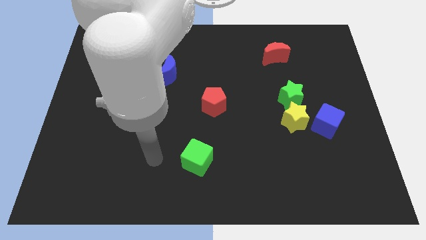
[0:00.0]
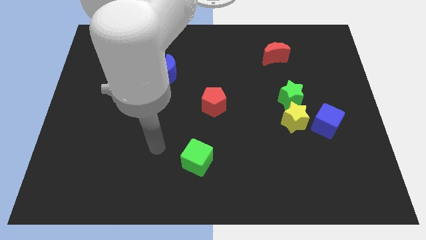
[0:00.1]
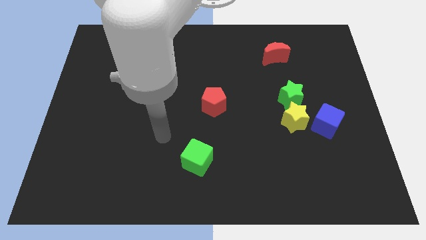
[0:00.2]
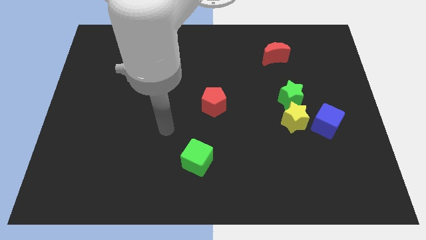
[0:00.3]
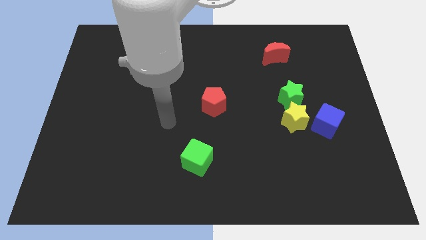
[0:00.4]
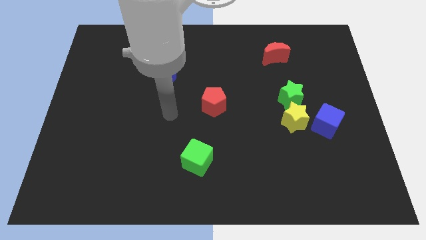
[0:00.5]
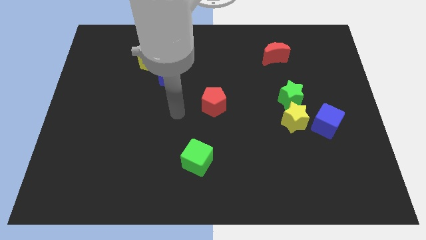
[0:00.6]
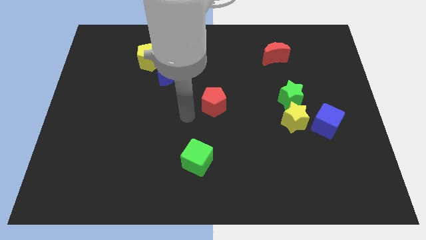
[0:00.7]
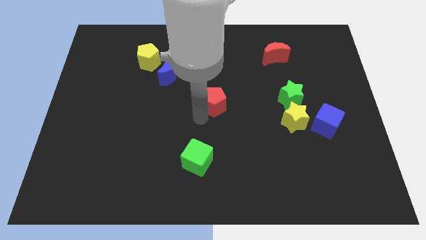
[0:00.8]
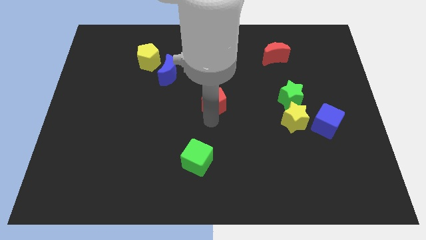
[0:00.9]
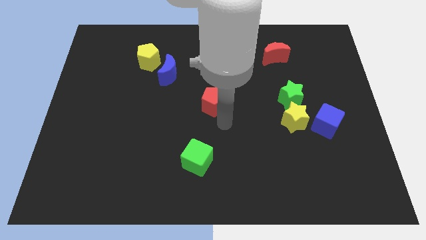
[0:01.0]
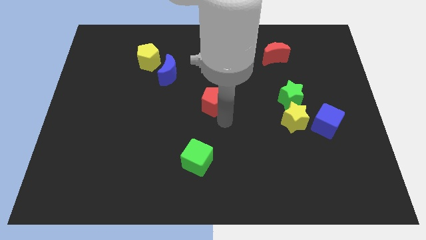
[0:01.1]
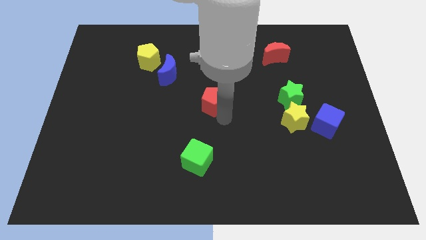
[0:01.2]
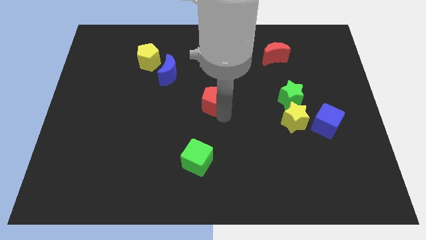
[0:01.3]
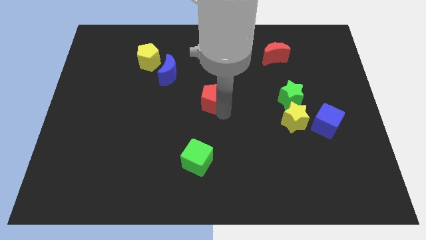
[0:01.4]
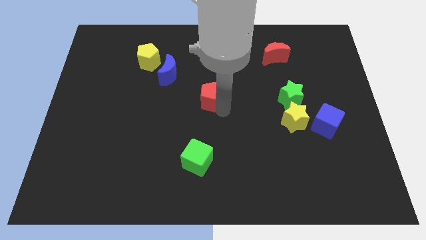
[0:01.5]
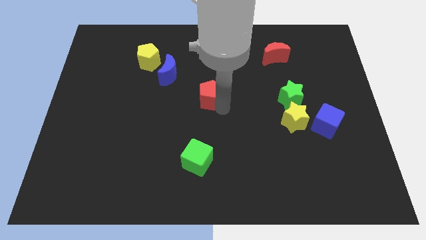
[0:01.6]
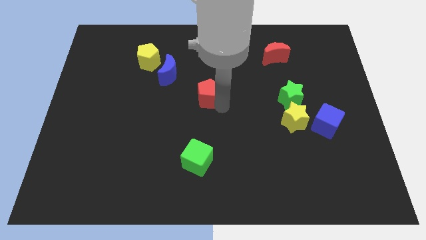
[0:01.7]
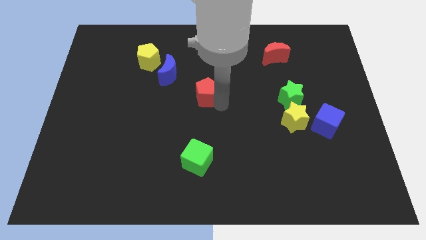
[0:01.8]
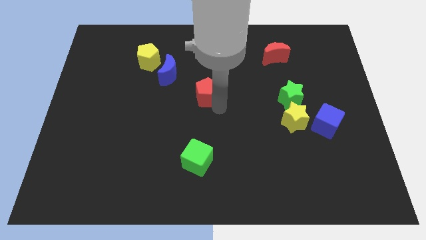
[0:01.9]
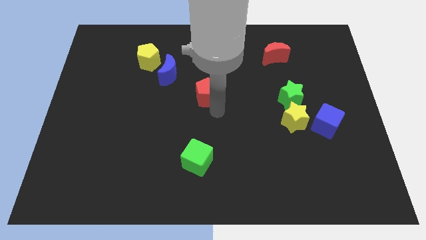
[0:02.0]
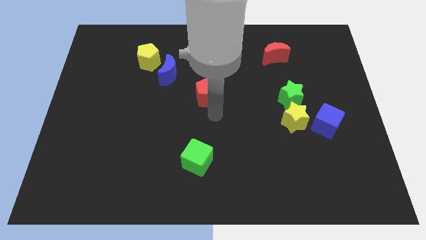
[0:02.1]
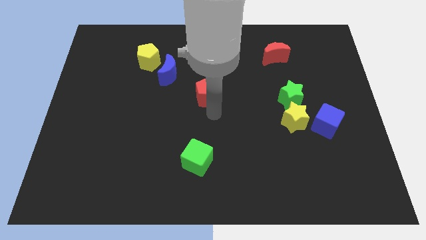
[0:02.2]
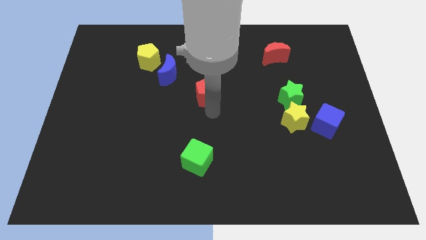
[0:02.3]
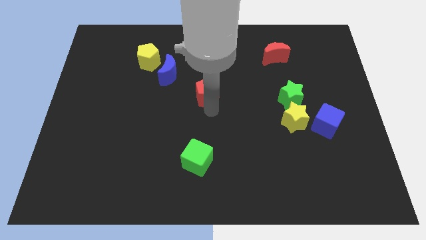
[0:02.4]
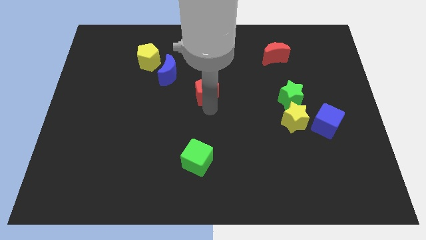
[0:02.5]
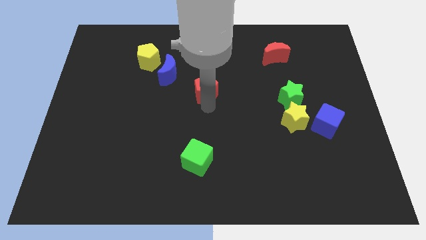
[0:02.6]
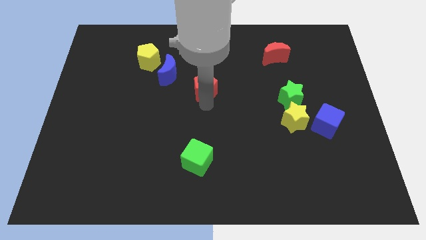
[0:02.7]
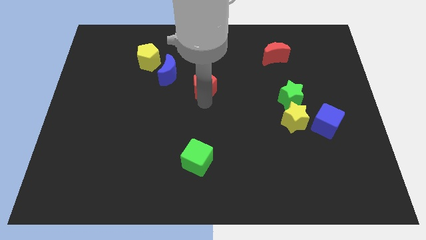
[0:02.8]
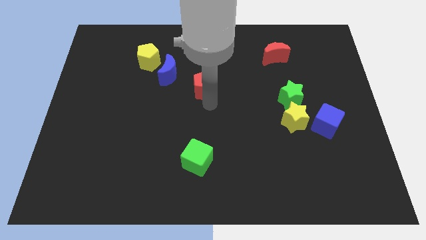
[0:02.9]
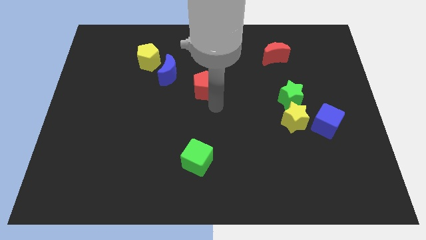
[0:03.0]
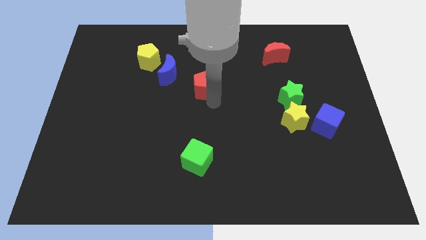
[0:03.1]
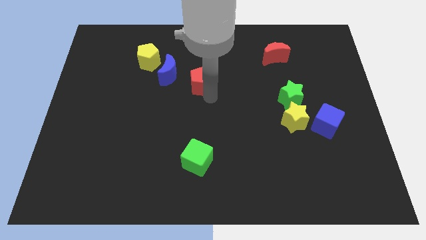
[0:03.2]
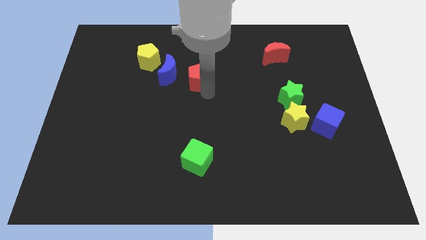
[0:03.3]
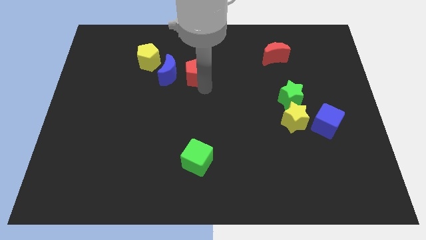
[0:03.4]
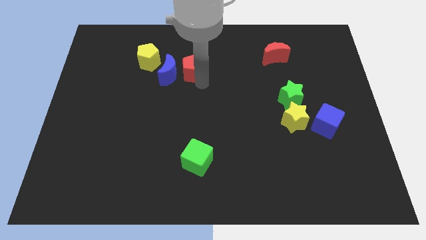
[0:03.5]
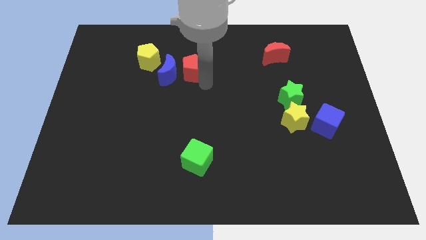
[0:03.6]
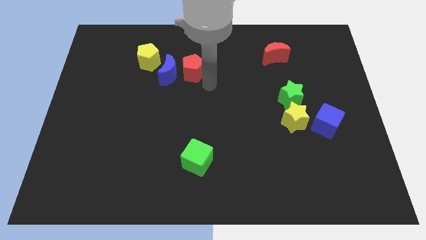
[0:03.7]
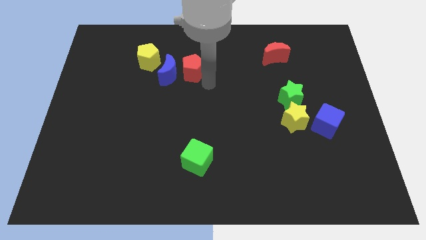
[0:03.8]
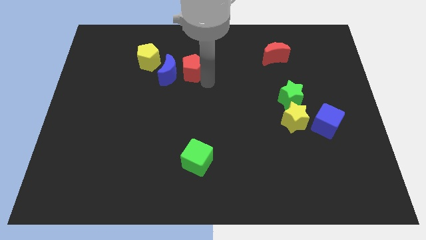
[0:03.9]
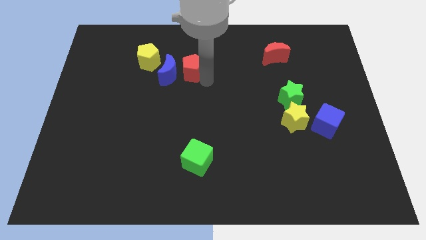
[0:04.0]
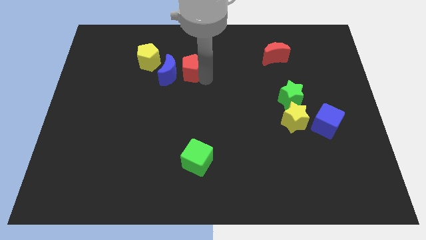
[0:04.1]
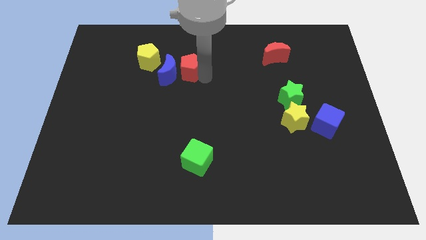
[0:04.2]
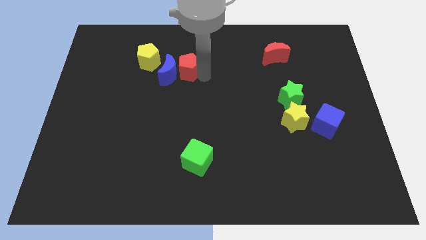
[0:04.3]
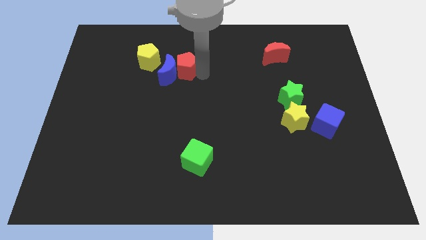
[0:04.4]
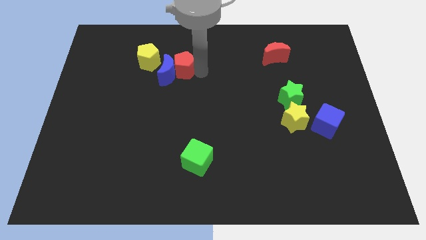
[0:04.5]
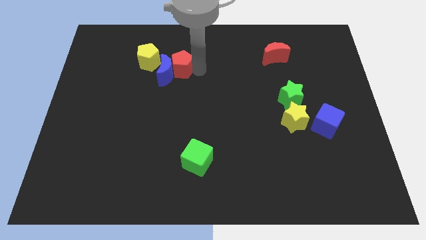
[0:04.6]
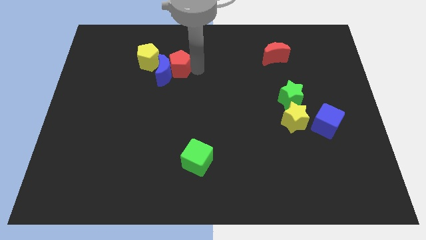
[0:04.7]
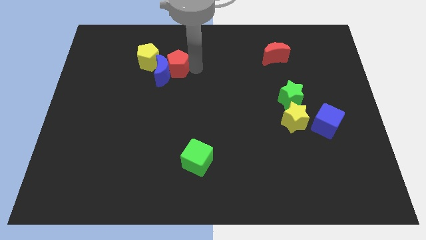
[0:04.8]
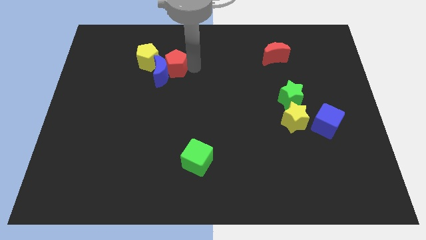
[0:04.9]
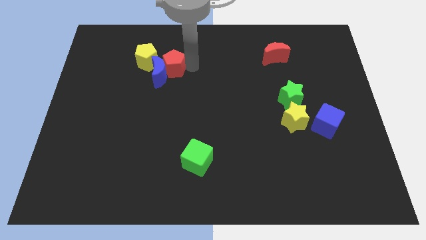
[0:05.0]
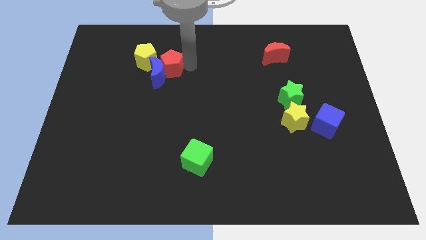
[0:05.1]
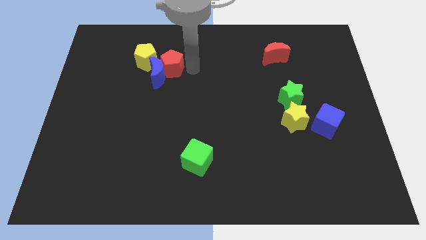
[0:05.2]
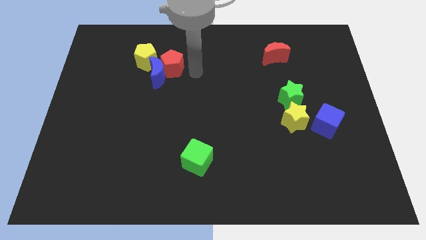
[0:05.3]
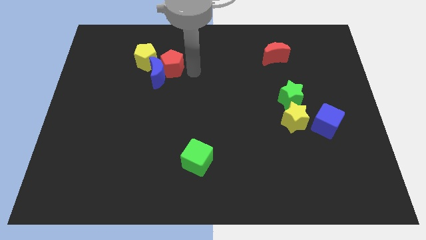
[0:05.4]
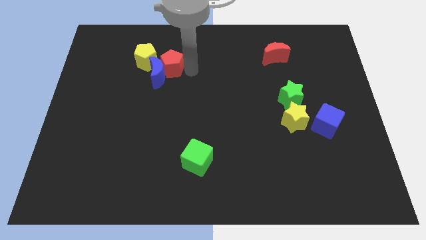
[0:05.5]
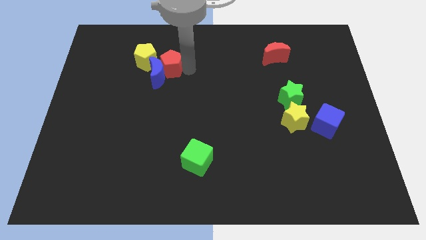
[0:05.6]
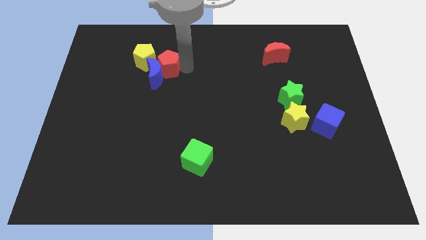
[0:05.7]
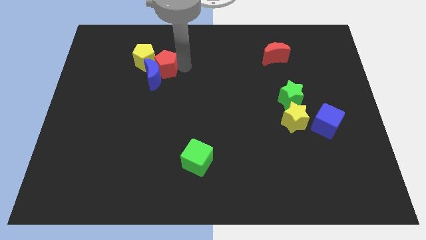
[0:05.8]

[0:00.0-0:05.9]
move the red pentagon towards the yellow pentagon

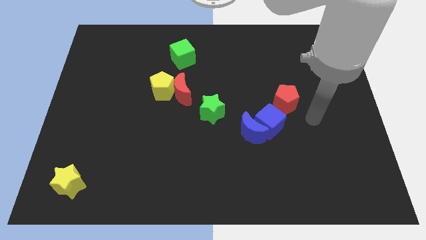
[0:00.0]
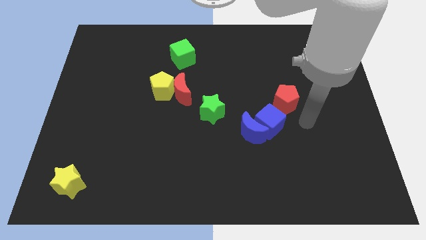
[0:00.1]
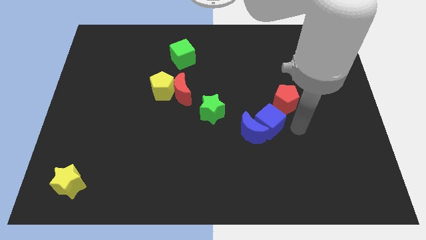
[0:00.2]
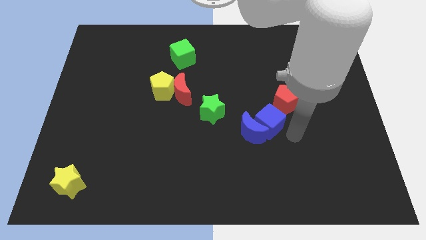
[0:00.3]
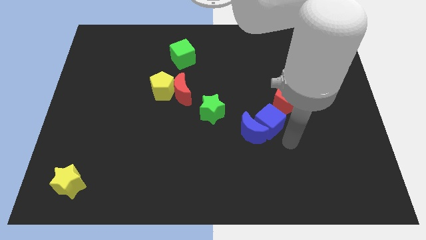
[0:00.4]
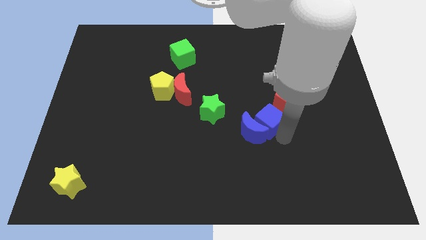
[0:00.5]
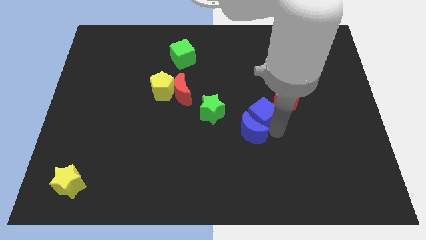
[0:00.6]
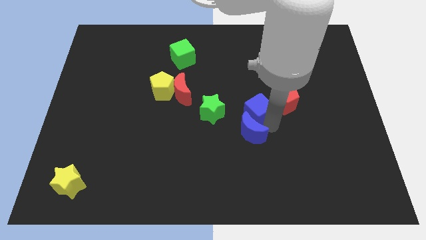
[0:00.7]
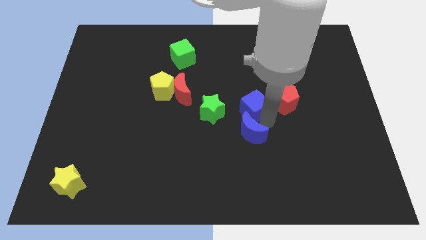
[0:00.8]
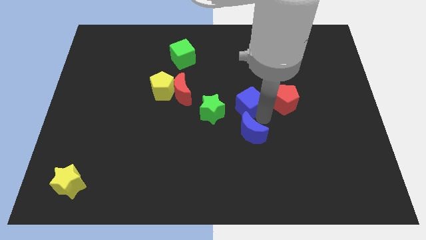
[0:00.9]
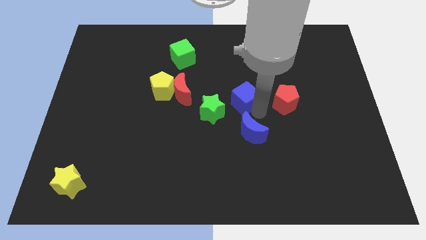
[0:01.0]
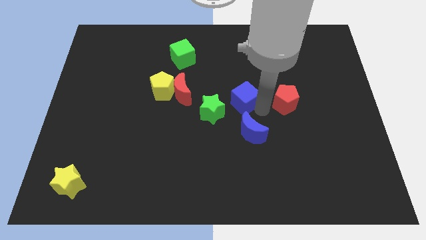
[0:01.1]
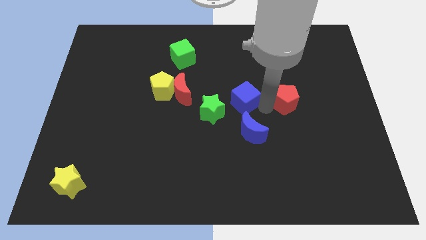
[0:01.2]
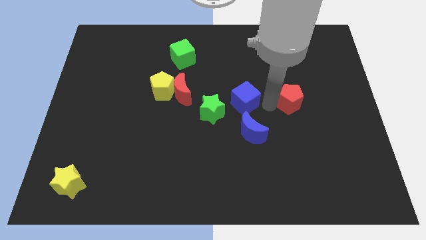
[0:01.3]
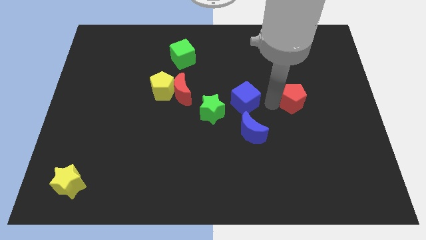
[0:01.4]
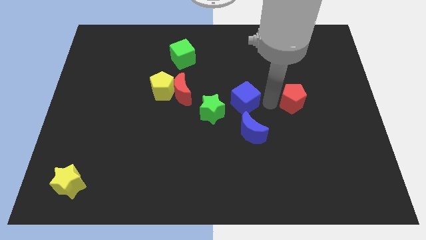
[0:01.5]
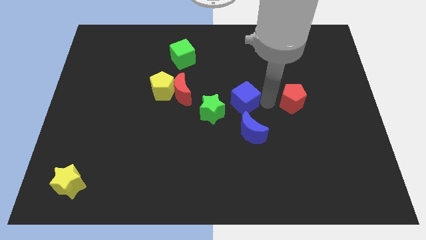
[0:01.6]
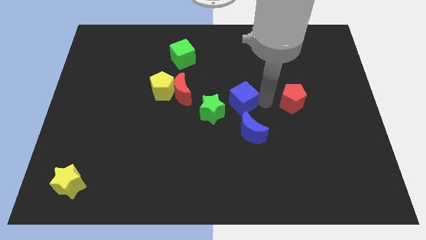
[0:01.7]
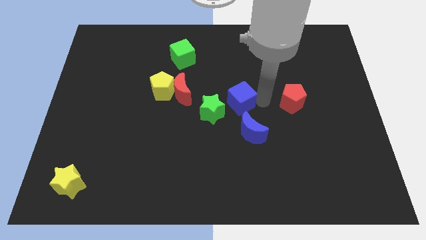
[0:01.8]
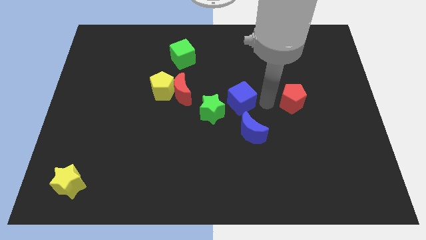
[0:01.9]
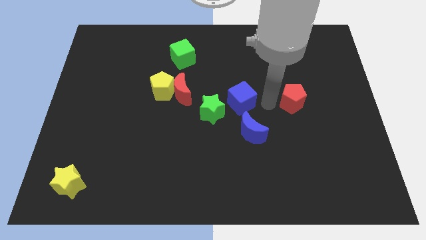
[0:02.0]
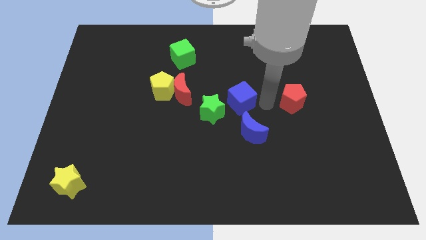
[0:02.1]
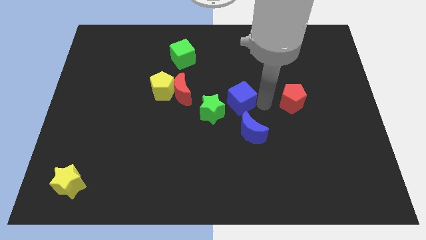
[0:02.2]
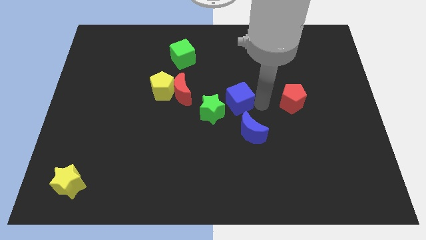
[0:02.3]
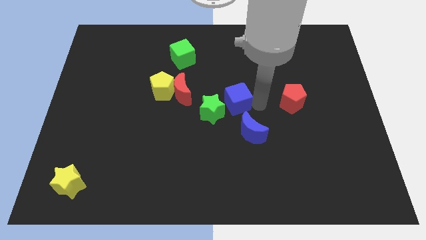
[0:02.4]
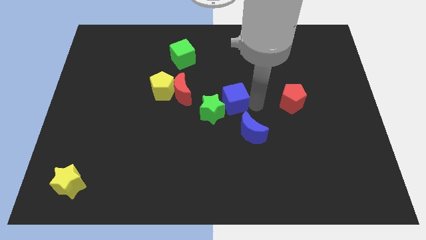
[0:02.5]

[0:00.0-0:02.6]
push the blue cube to the green star
